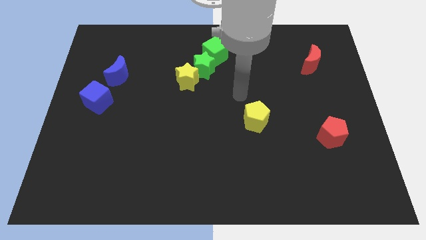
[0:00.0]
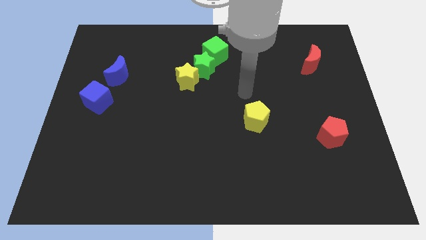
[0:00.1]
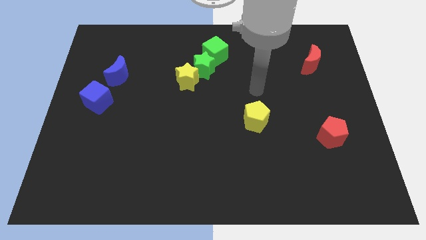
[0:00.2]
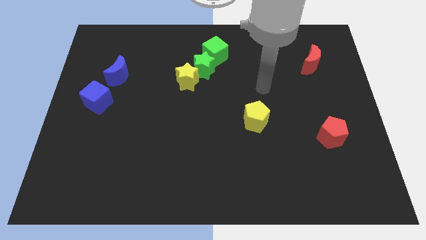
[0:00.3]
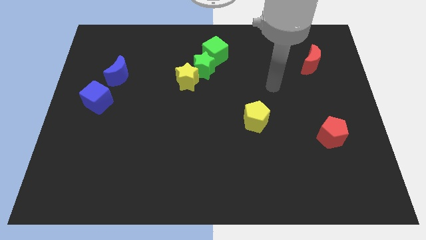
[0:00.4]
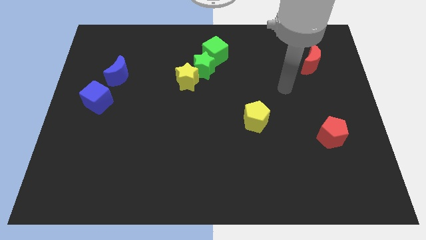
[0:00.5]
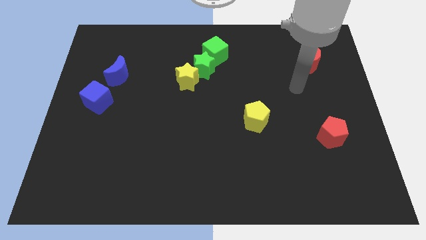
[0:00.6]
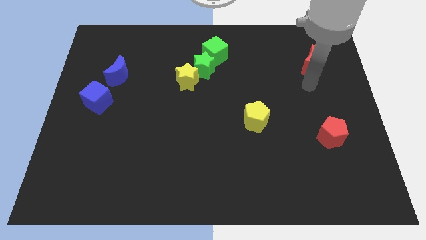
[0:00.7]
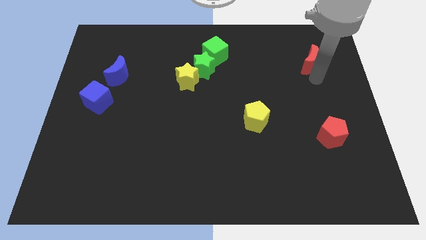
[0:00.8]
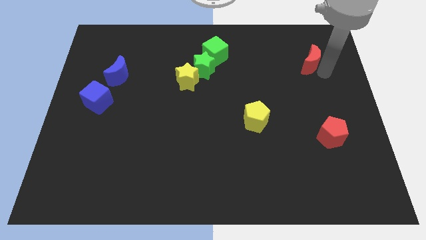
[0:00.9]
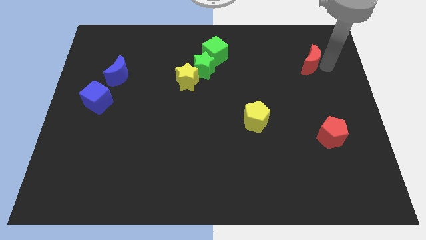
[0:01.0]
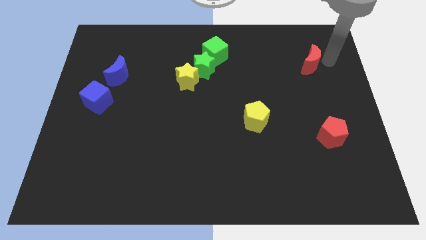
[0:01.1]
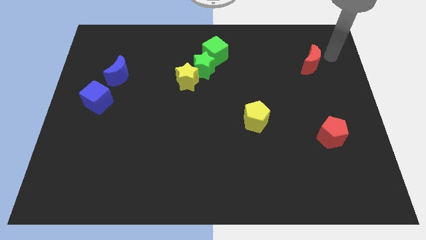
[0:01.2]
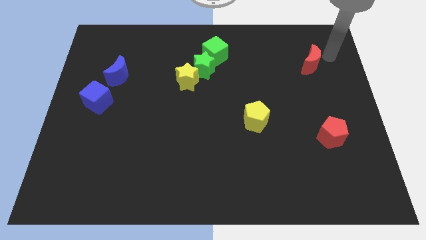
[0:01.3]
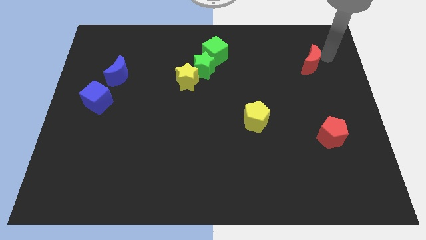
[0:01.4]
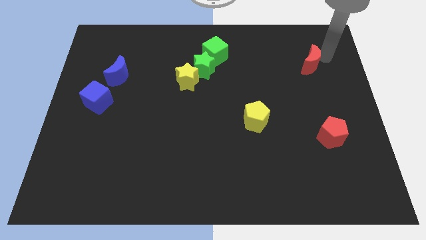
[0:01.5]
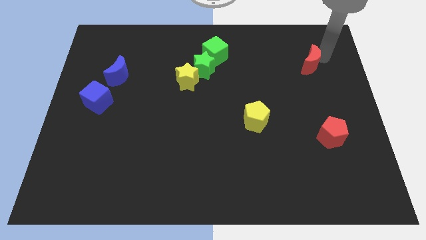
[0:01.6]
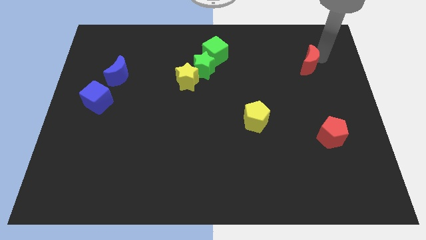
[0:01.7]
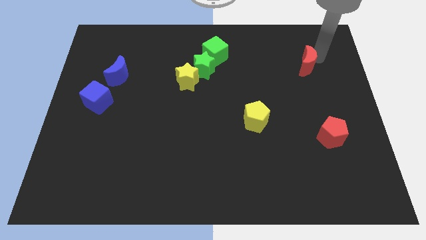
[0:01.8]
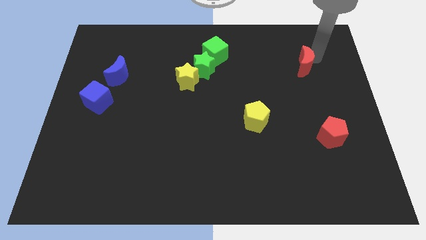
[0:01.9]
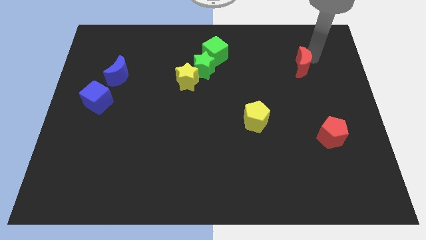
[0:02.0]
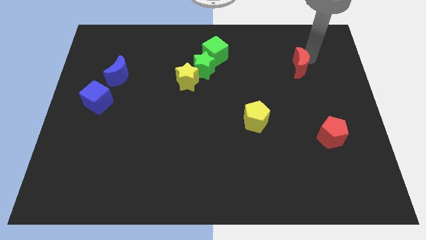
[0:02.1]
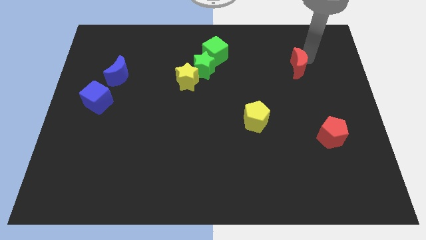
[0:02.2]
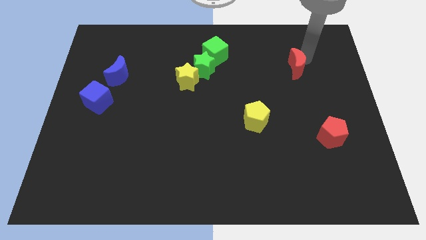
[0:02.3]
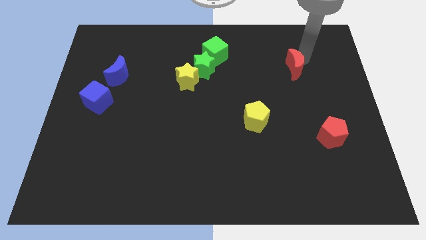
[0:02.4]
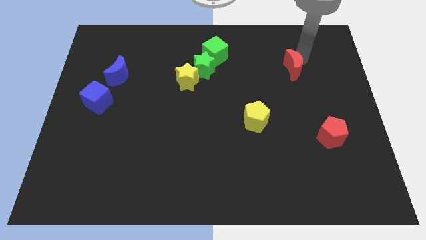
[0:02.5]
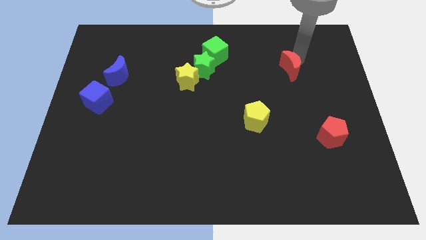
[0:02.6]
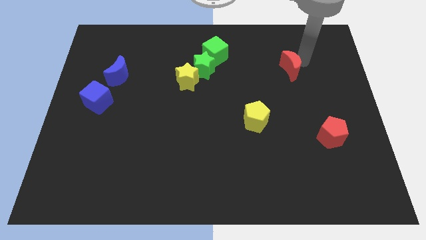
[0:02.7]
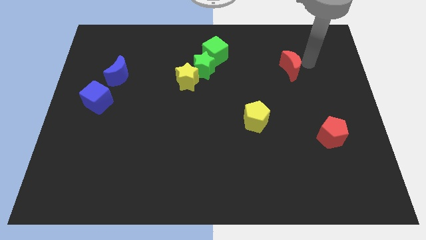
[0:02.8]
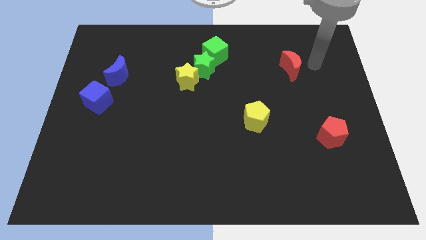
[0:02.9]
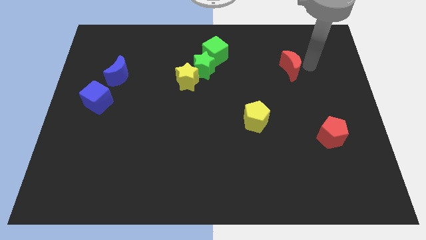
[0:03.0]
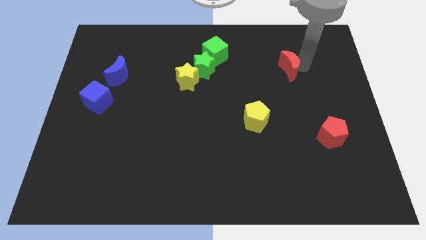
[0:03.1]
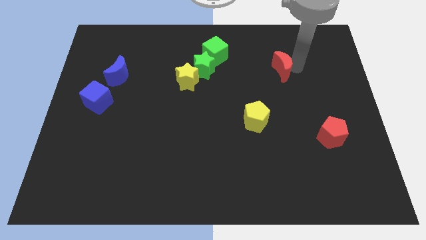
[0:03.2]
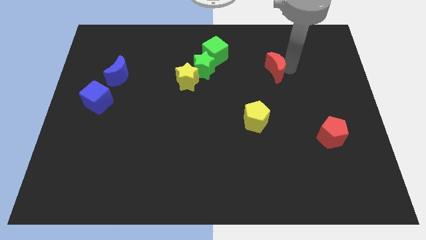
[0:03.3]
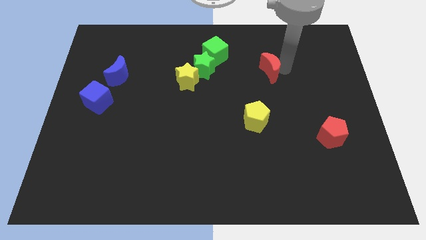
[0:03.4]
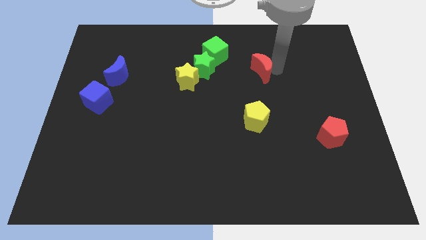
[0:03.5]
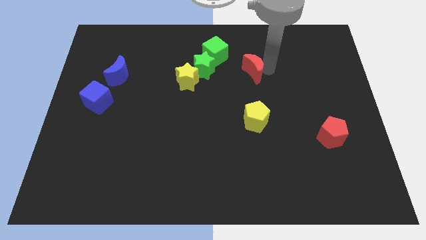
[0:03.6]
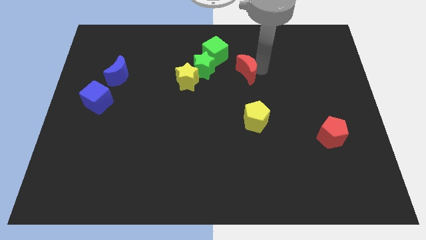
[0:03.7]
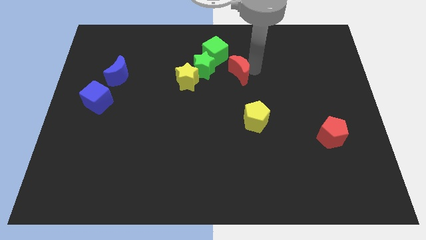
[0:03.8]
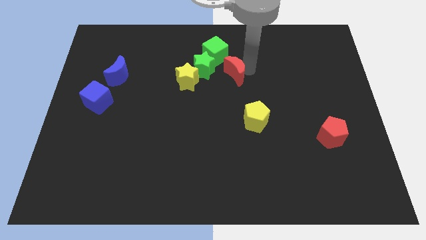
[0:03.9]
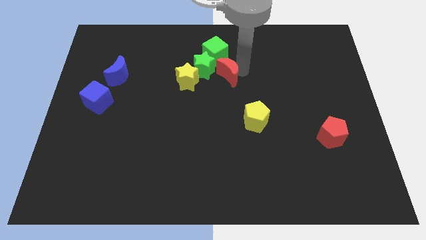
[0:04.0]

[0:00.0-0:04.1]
slide the red moon to the left

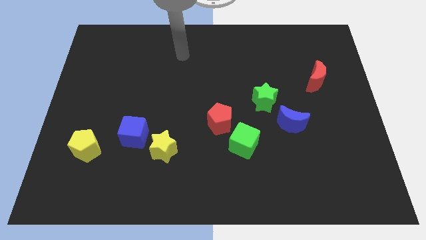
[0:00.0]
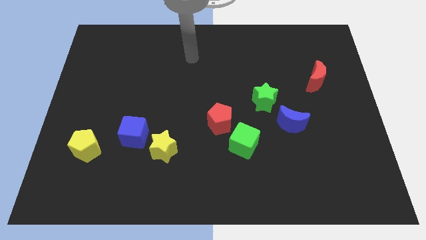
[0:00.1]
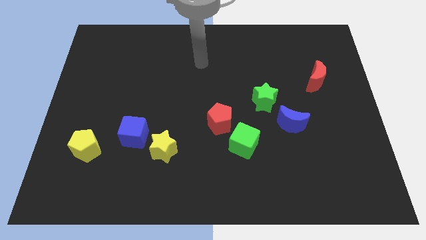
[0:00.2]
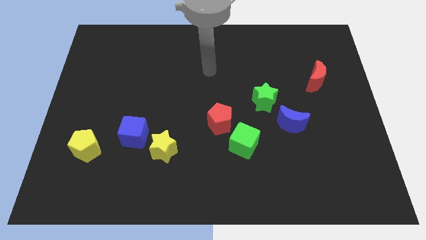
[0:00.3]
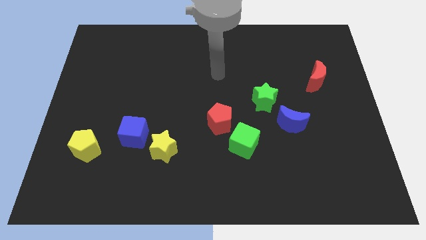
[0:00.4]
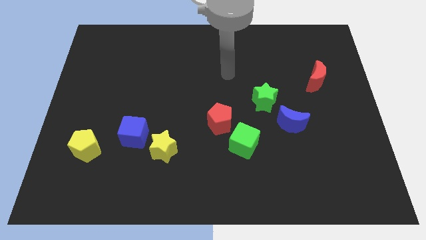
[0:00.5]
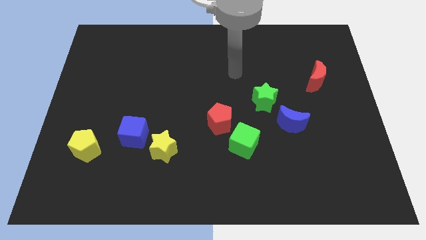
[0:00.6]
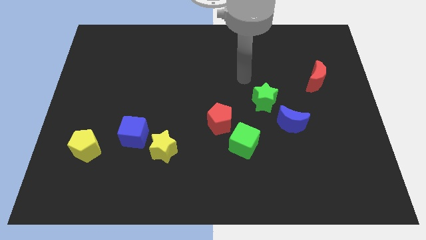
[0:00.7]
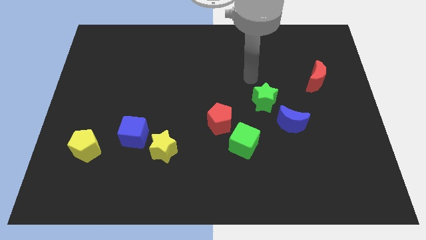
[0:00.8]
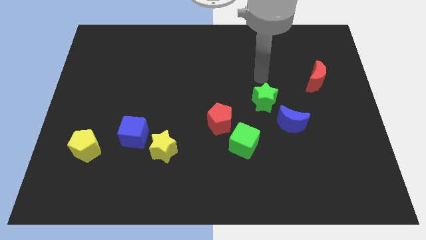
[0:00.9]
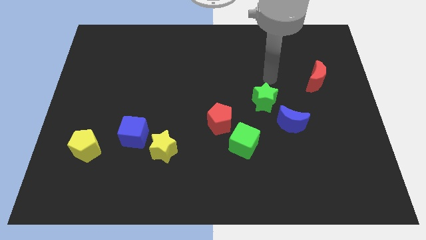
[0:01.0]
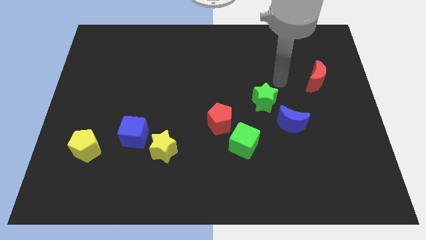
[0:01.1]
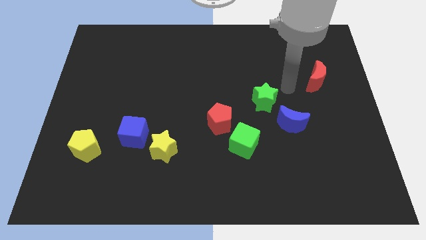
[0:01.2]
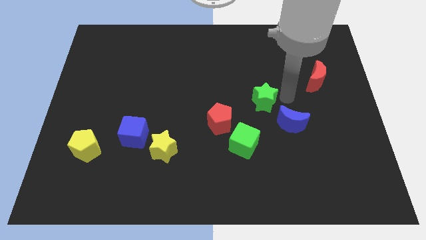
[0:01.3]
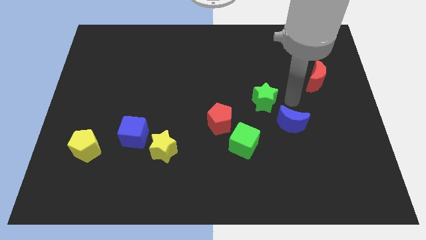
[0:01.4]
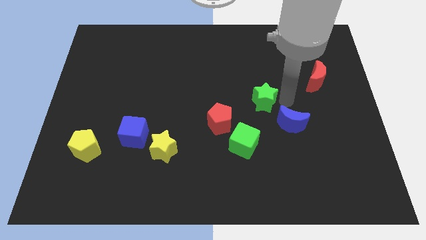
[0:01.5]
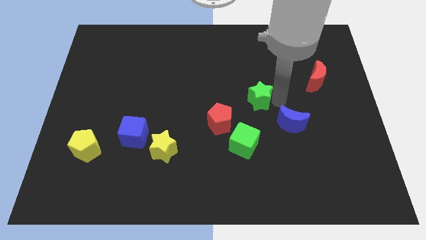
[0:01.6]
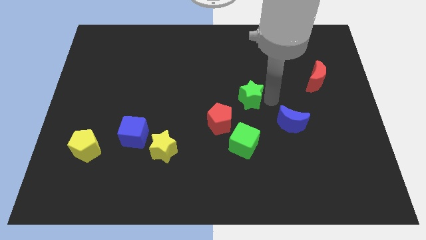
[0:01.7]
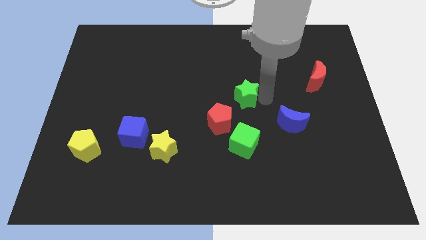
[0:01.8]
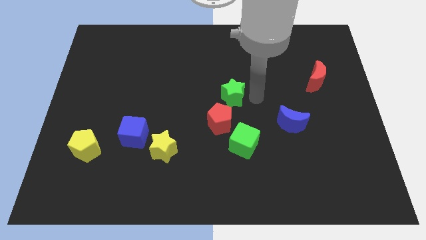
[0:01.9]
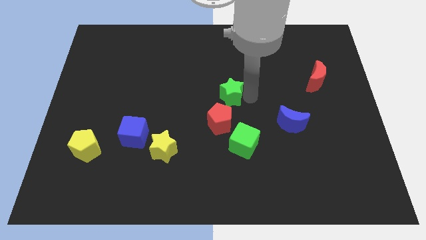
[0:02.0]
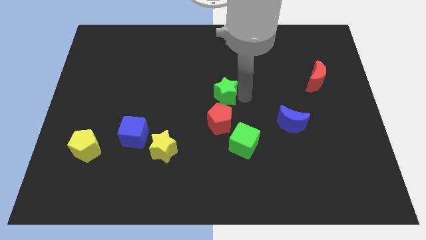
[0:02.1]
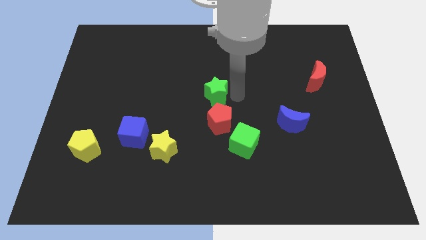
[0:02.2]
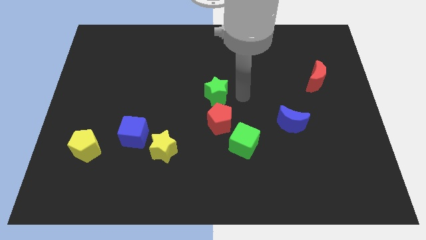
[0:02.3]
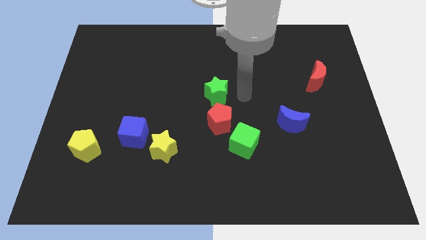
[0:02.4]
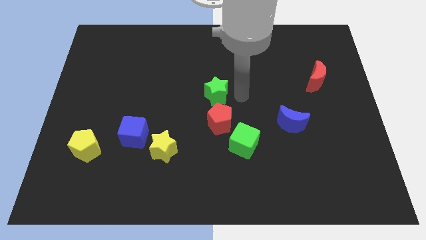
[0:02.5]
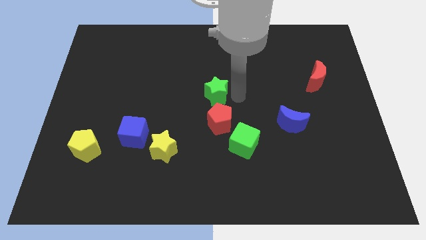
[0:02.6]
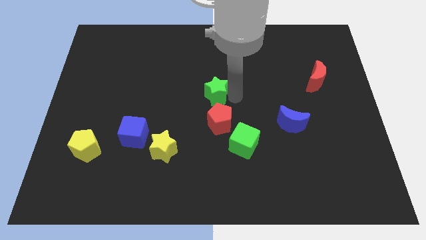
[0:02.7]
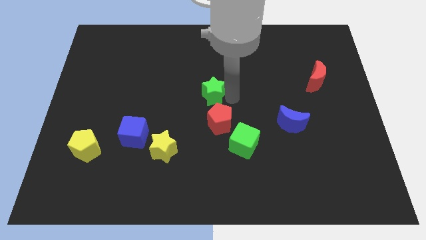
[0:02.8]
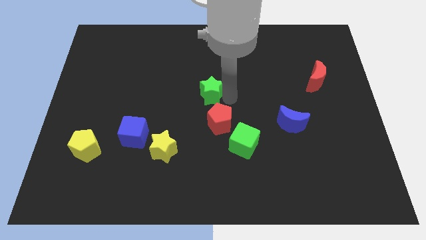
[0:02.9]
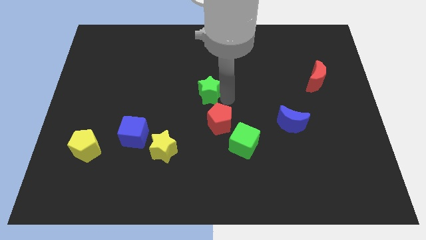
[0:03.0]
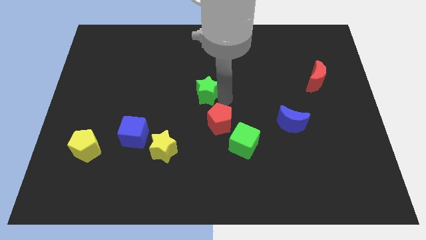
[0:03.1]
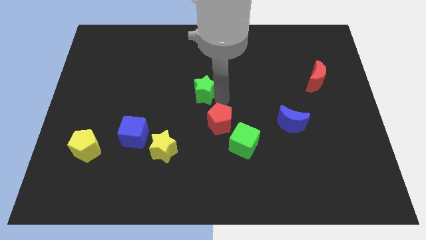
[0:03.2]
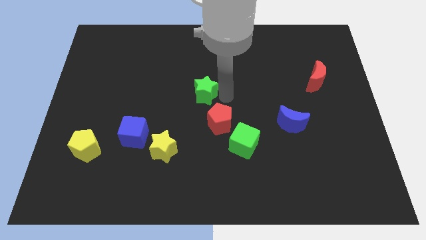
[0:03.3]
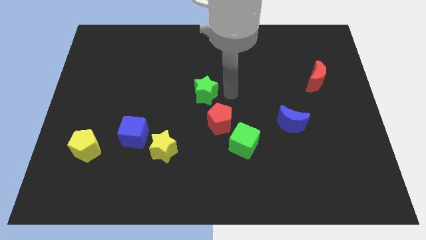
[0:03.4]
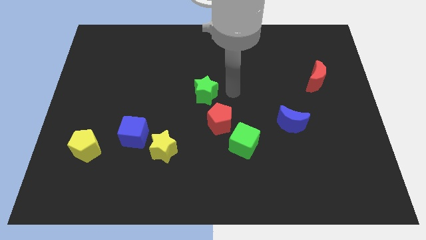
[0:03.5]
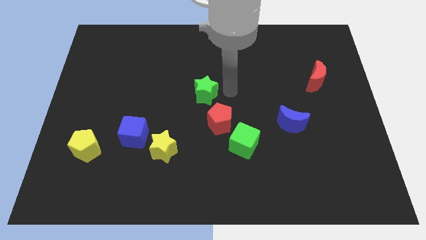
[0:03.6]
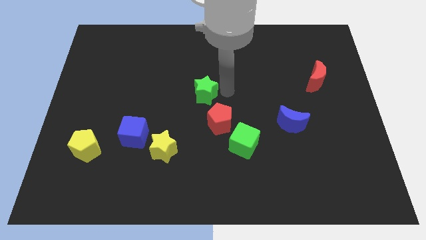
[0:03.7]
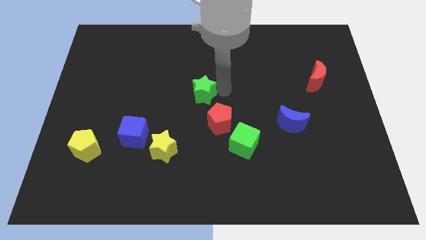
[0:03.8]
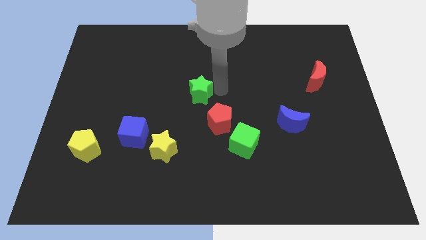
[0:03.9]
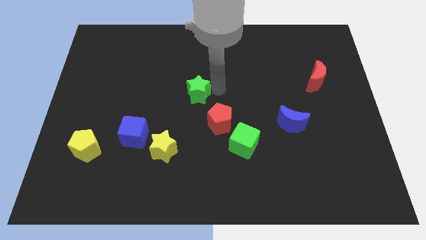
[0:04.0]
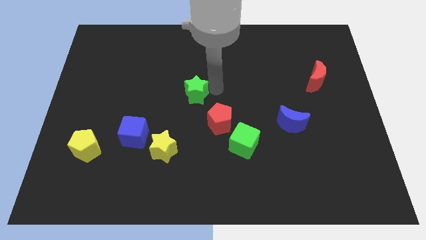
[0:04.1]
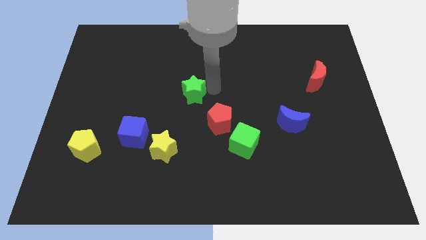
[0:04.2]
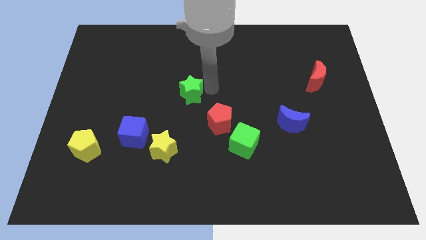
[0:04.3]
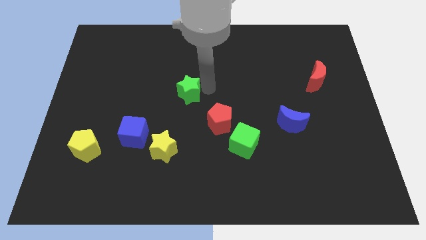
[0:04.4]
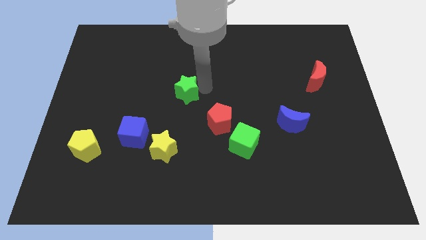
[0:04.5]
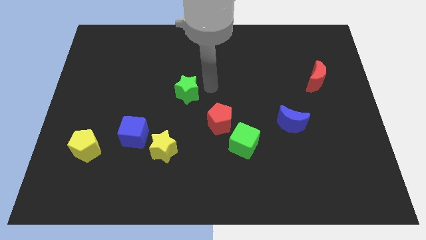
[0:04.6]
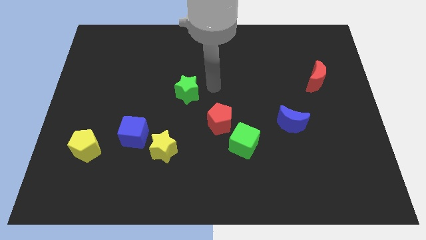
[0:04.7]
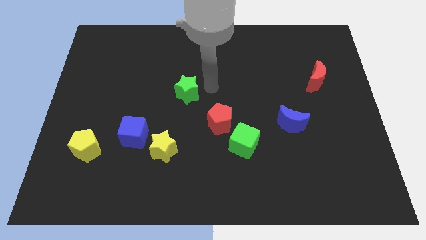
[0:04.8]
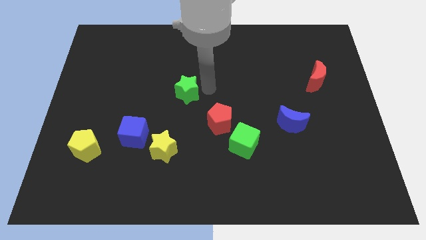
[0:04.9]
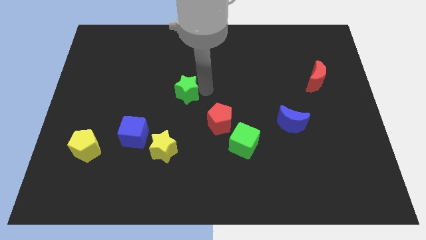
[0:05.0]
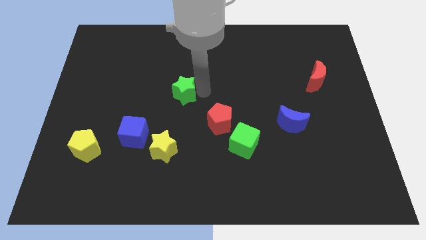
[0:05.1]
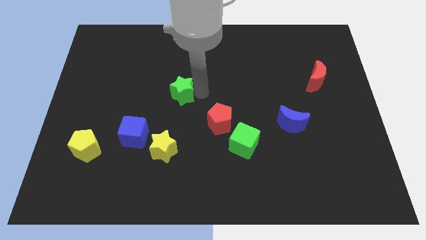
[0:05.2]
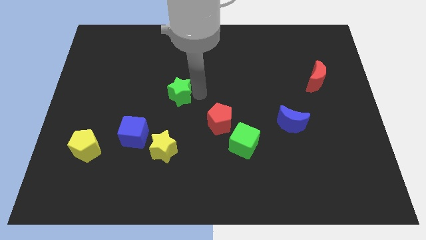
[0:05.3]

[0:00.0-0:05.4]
slide the green star left
